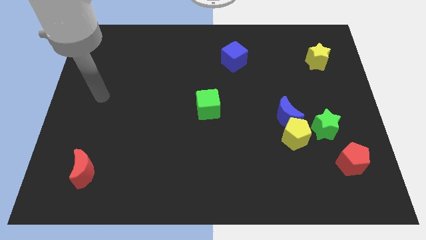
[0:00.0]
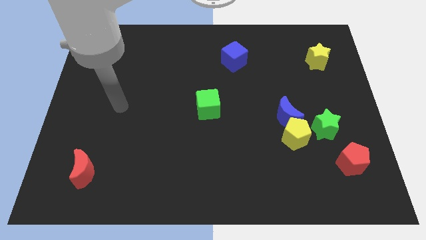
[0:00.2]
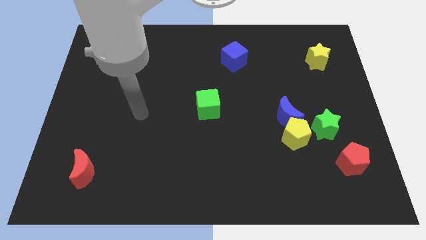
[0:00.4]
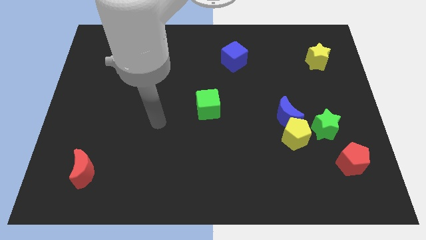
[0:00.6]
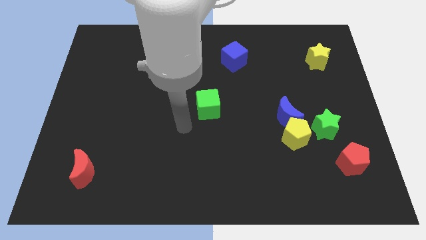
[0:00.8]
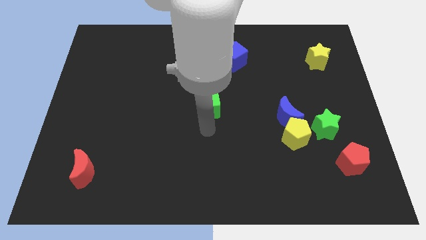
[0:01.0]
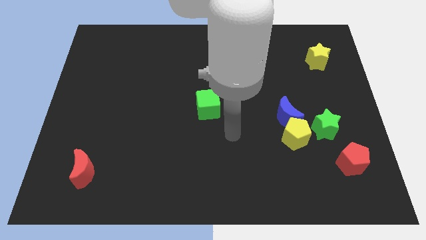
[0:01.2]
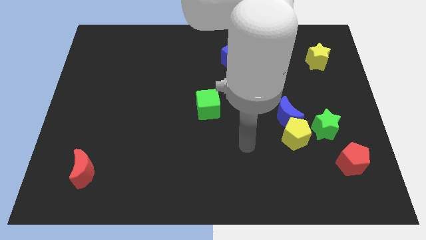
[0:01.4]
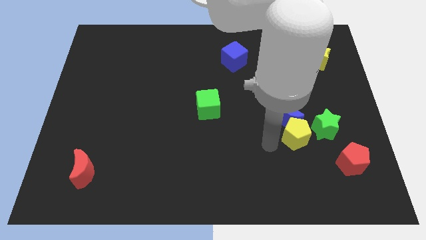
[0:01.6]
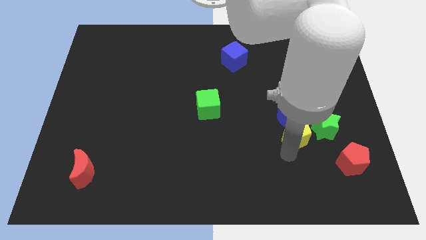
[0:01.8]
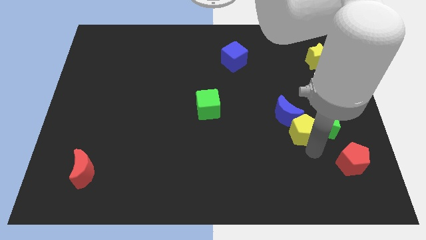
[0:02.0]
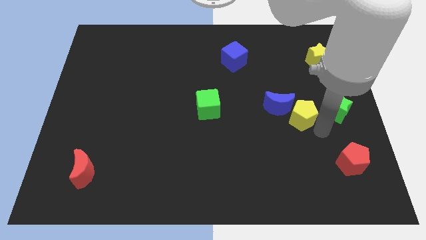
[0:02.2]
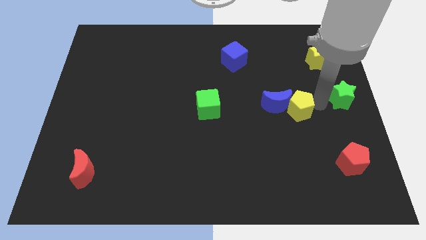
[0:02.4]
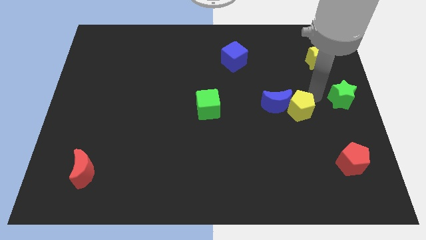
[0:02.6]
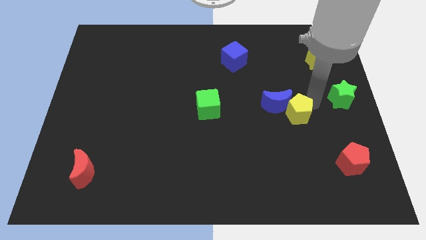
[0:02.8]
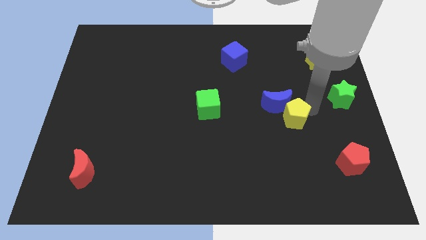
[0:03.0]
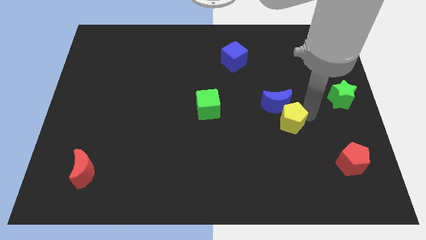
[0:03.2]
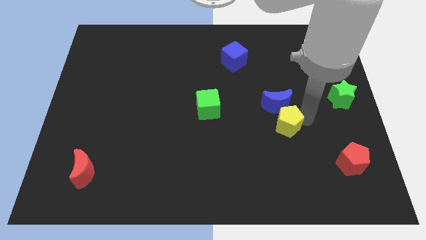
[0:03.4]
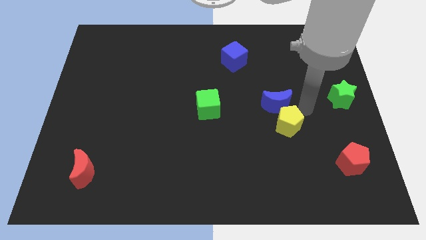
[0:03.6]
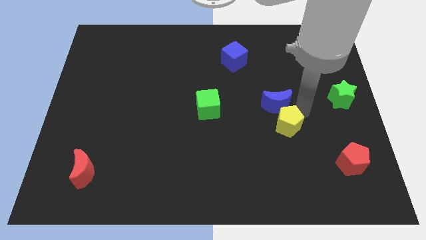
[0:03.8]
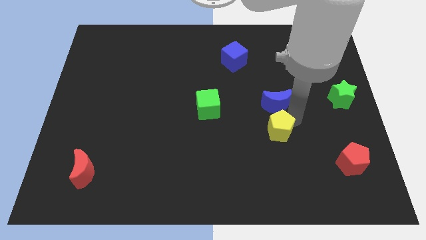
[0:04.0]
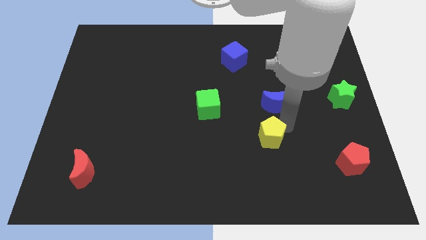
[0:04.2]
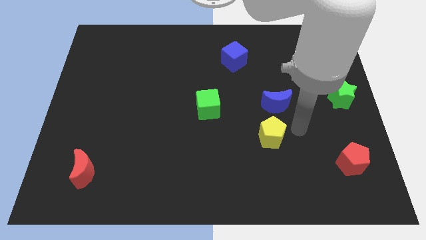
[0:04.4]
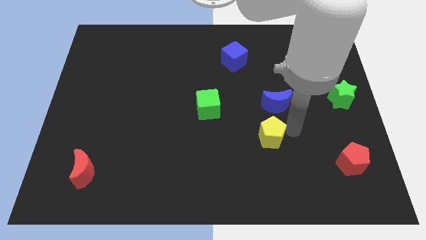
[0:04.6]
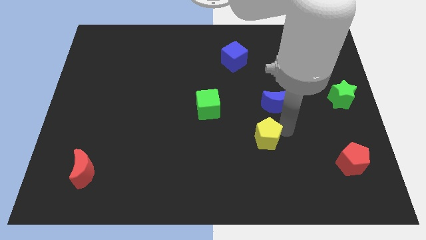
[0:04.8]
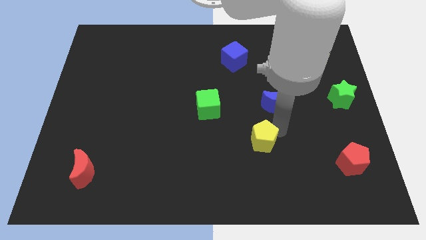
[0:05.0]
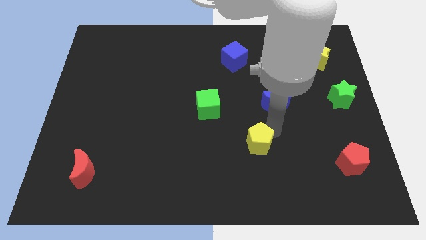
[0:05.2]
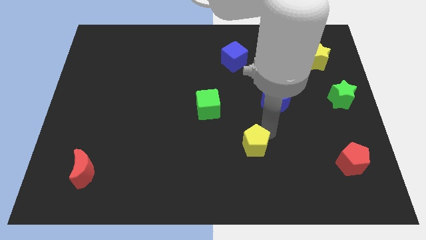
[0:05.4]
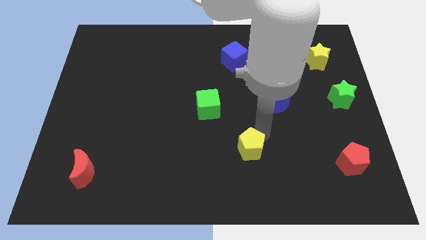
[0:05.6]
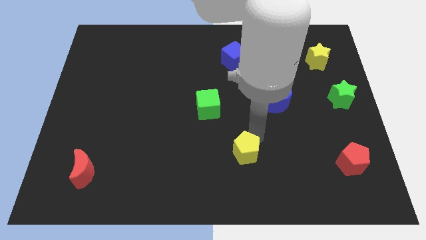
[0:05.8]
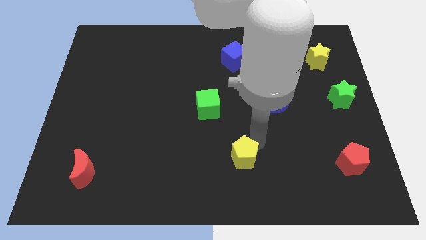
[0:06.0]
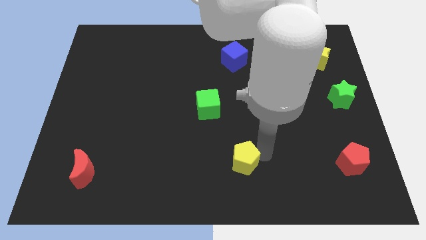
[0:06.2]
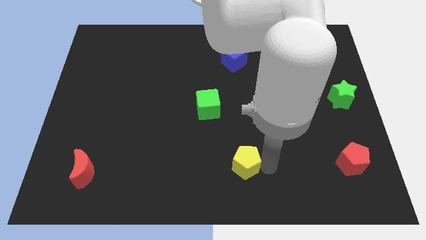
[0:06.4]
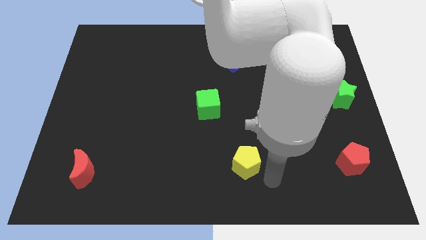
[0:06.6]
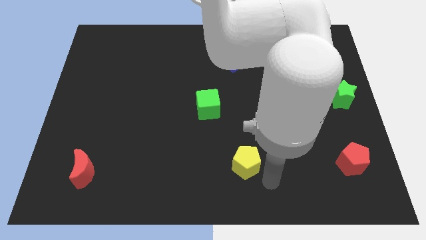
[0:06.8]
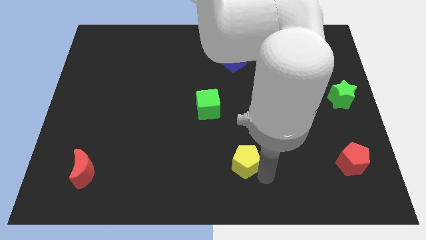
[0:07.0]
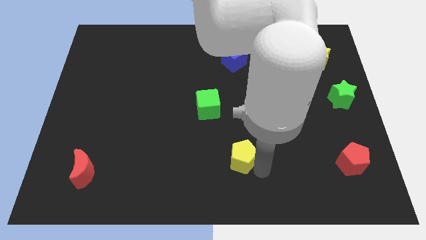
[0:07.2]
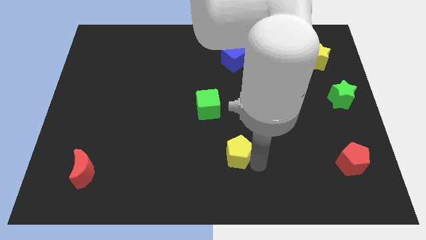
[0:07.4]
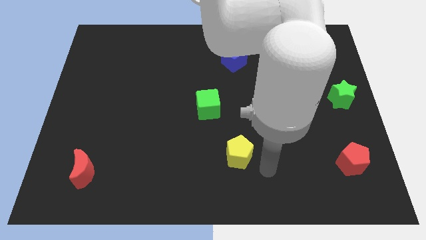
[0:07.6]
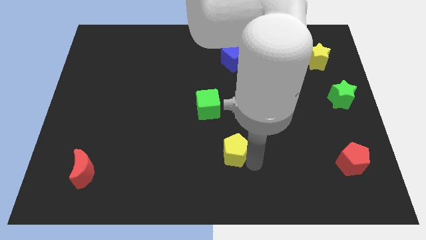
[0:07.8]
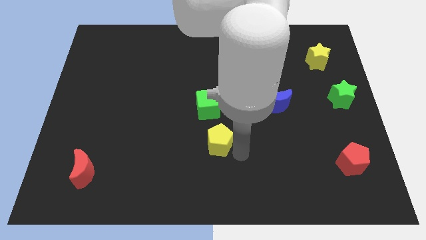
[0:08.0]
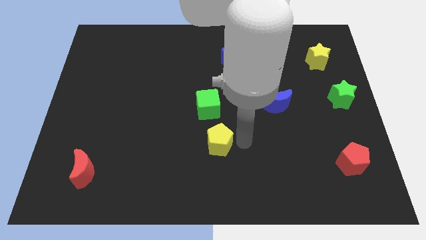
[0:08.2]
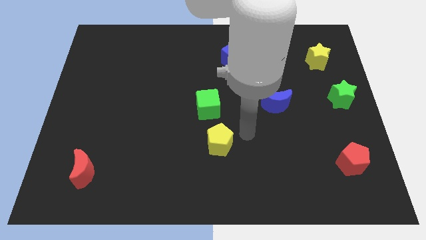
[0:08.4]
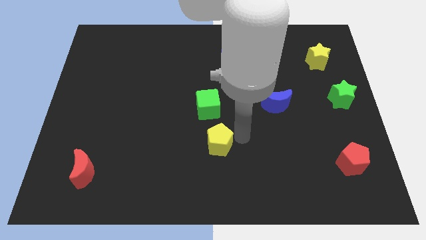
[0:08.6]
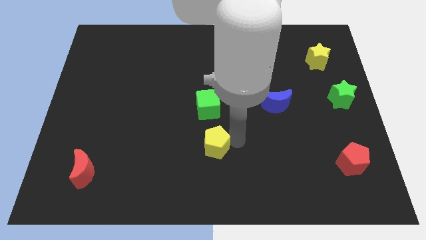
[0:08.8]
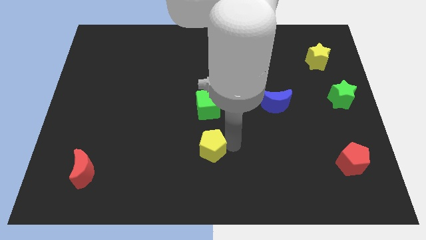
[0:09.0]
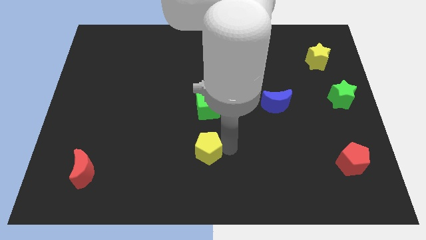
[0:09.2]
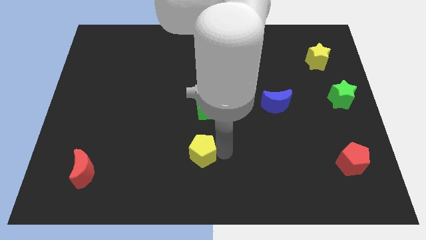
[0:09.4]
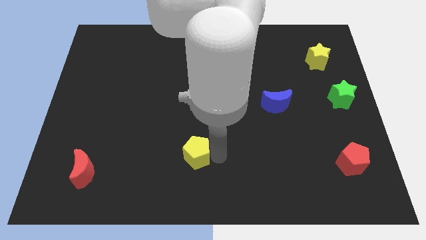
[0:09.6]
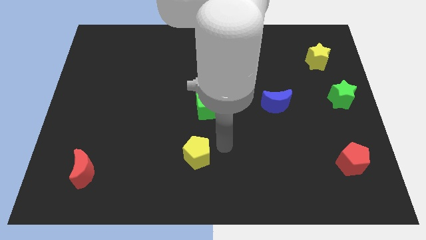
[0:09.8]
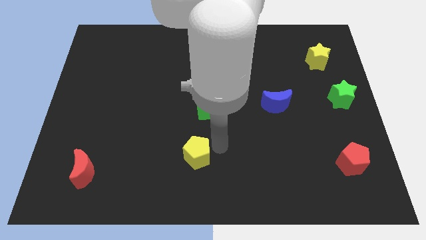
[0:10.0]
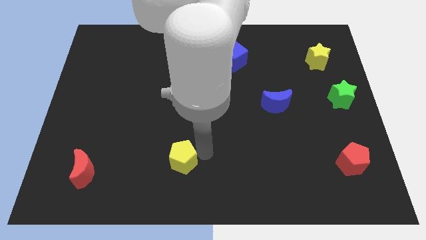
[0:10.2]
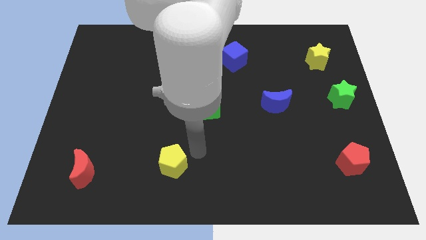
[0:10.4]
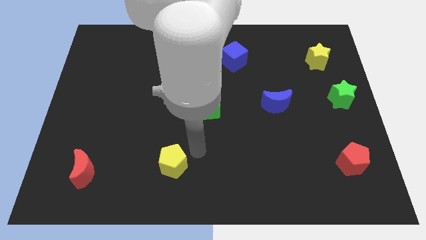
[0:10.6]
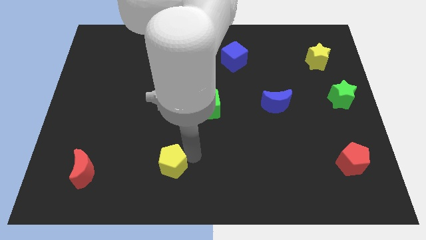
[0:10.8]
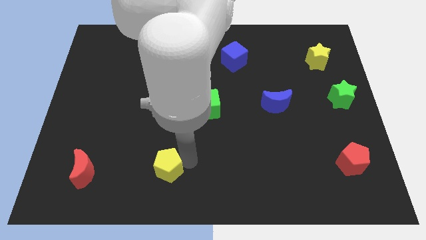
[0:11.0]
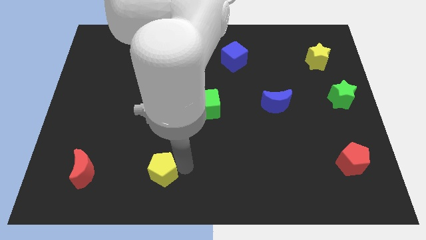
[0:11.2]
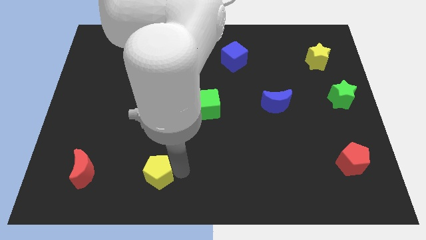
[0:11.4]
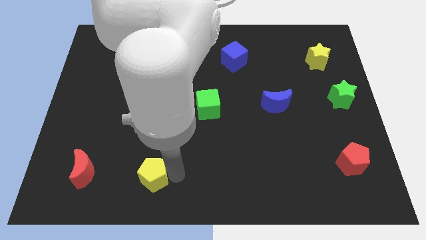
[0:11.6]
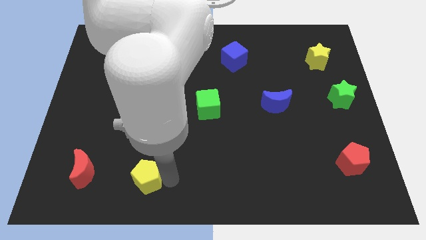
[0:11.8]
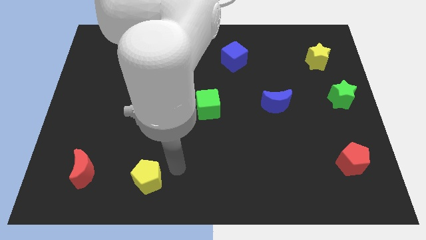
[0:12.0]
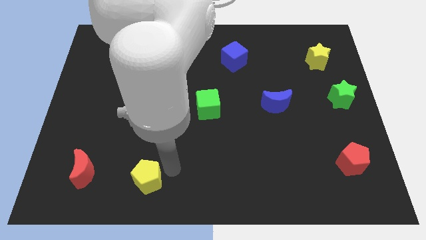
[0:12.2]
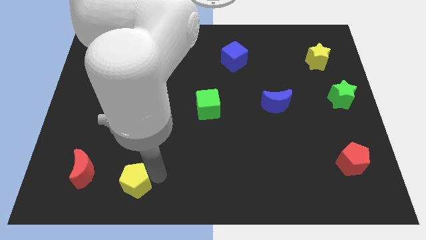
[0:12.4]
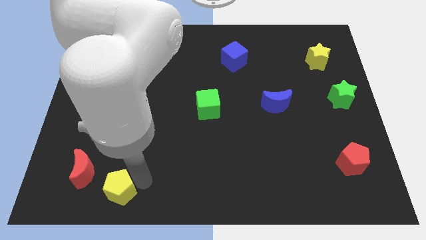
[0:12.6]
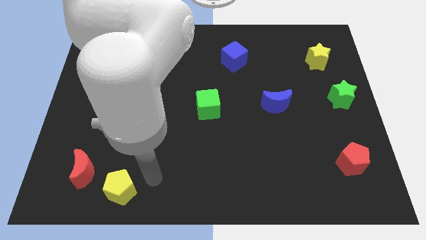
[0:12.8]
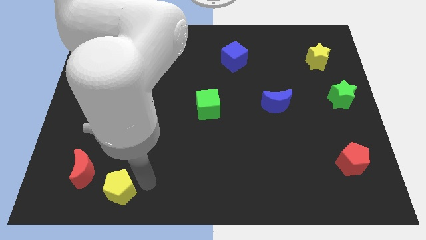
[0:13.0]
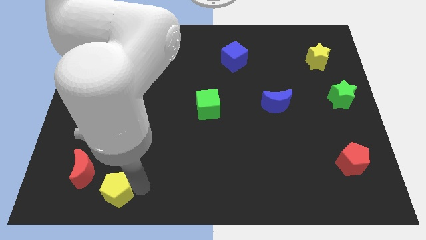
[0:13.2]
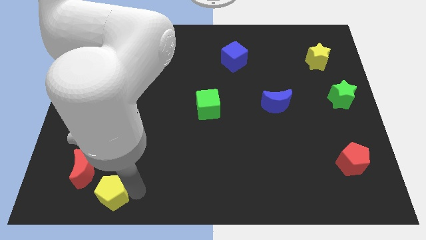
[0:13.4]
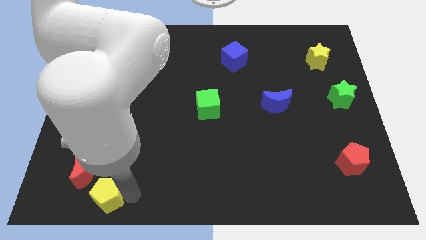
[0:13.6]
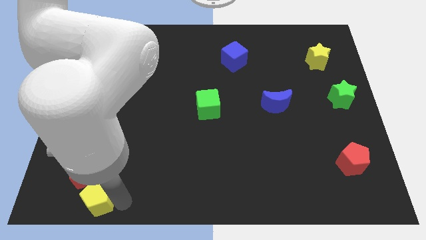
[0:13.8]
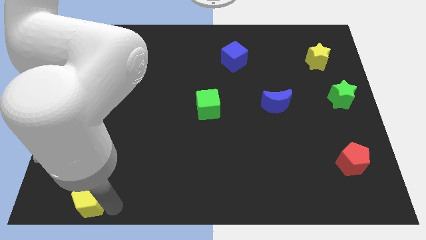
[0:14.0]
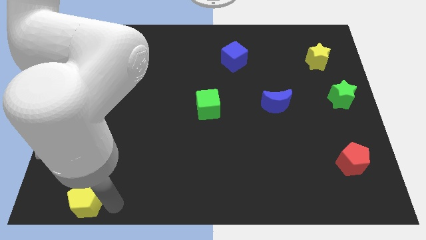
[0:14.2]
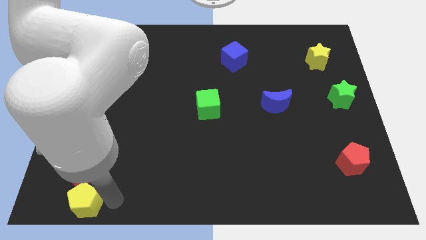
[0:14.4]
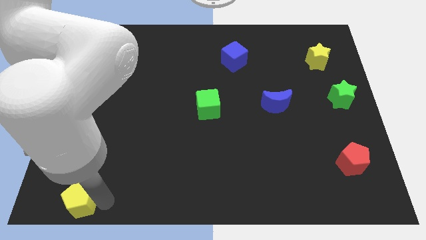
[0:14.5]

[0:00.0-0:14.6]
put the yellow pentagon to the lower left corner
